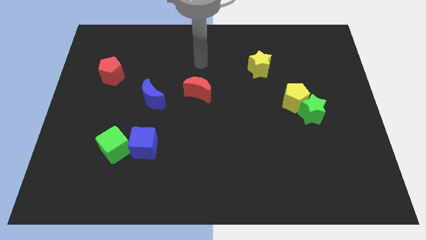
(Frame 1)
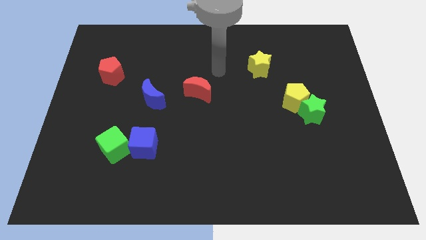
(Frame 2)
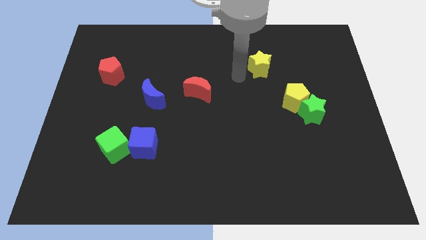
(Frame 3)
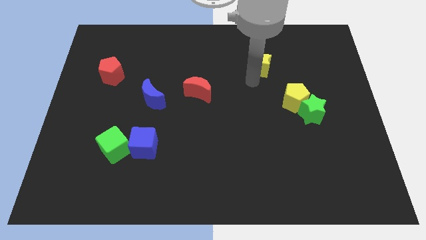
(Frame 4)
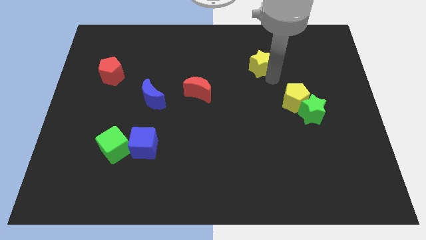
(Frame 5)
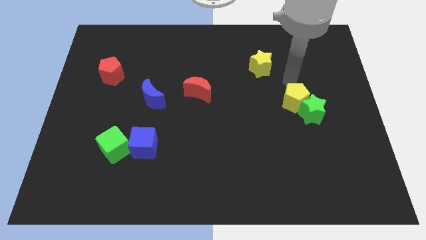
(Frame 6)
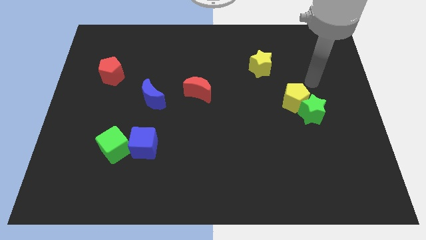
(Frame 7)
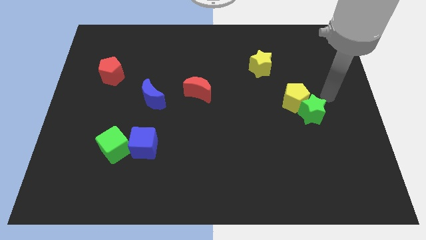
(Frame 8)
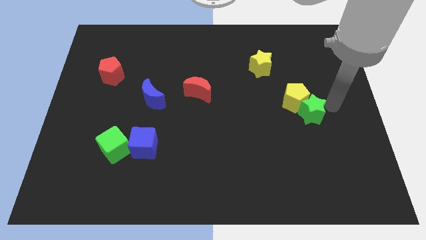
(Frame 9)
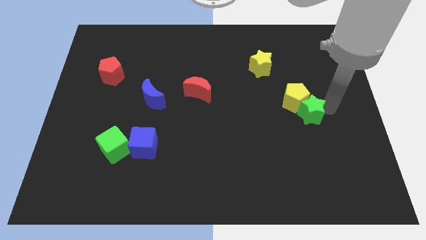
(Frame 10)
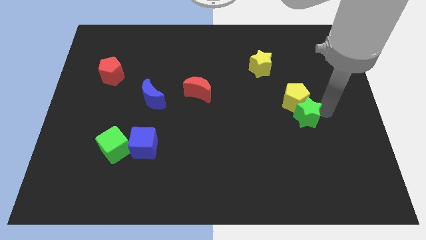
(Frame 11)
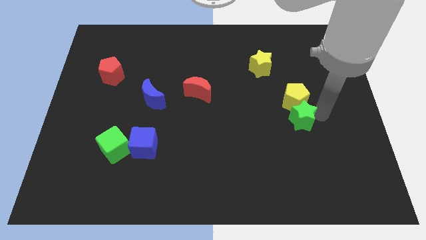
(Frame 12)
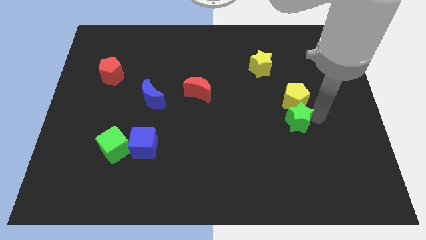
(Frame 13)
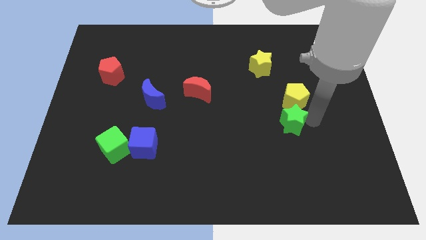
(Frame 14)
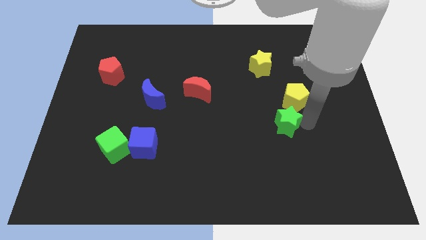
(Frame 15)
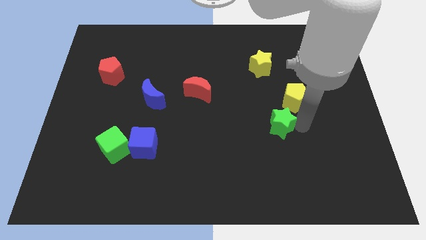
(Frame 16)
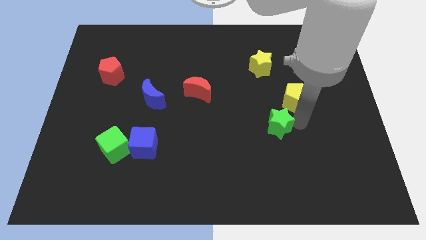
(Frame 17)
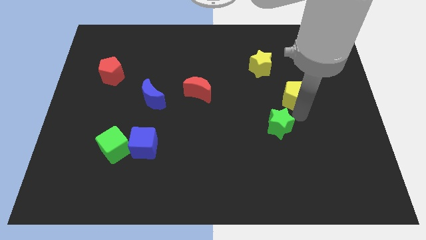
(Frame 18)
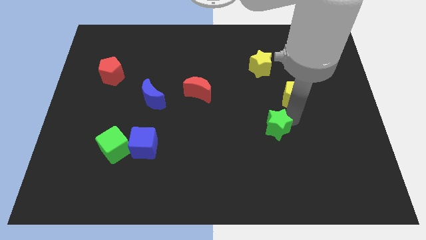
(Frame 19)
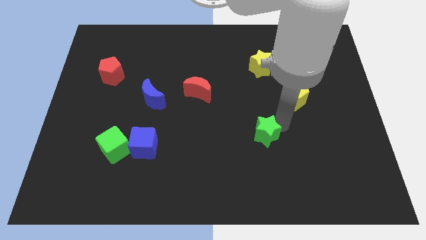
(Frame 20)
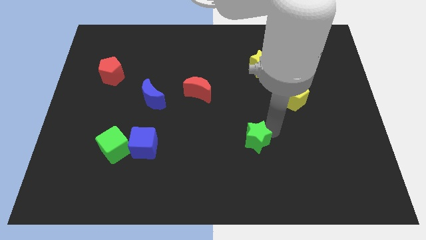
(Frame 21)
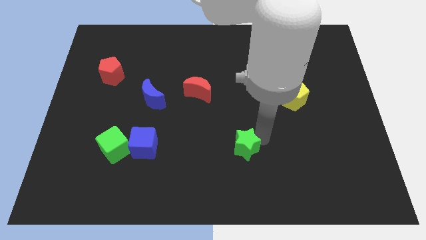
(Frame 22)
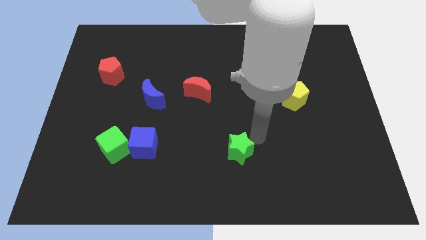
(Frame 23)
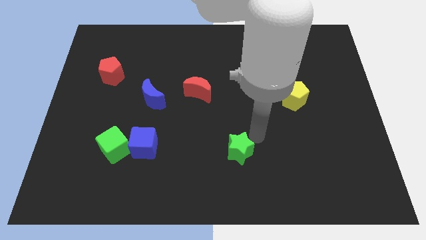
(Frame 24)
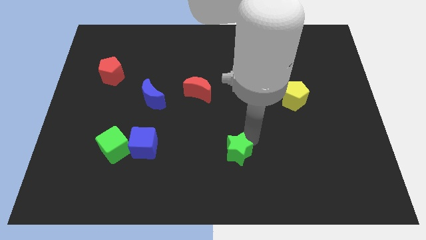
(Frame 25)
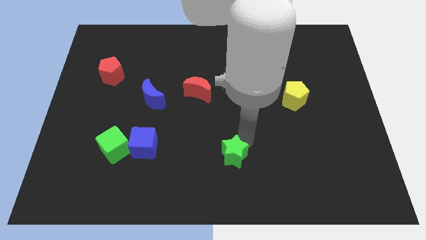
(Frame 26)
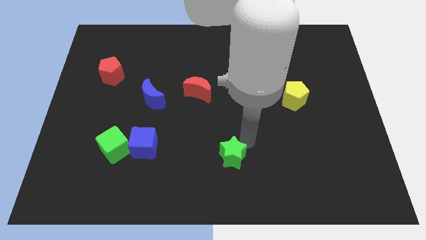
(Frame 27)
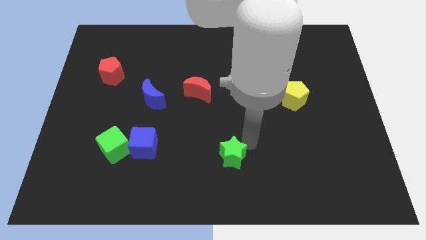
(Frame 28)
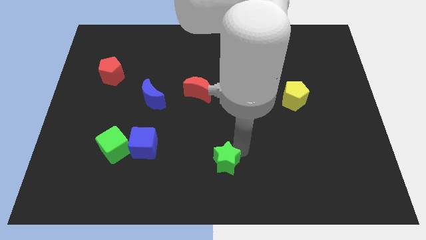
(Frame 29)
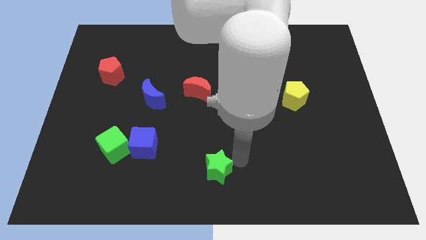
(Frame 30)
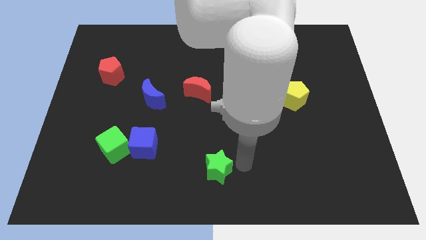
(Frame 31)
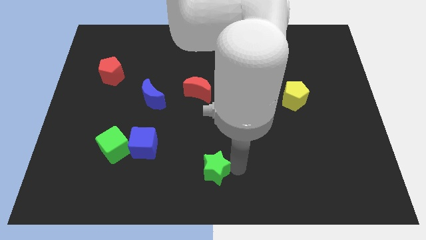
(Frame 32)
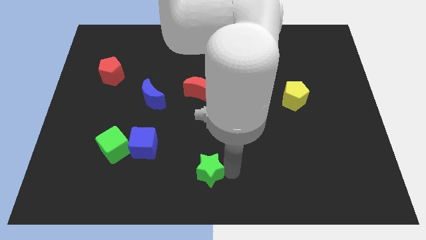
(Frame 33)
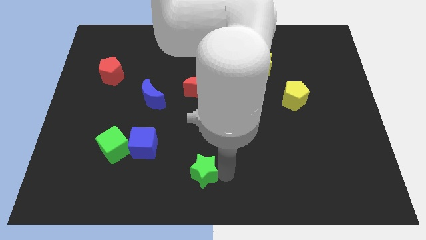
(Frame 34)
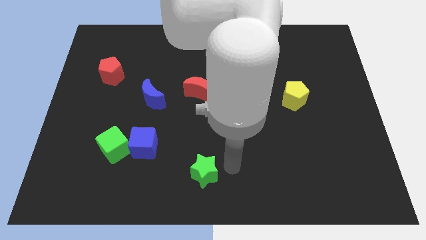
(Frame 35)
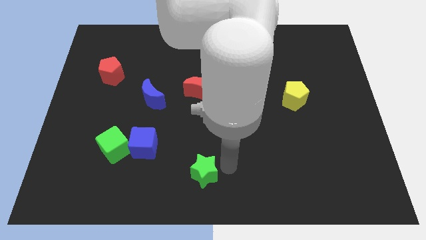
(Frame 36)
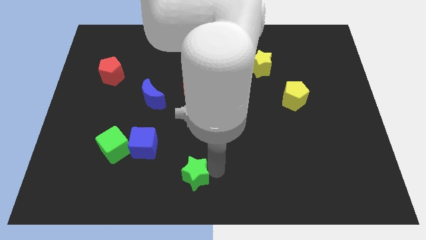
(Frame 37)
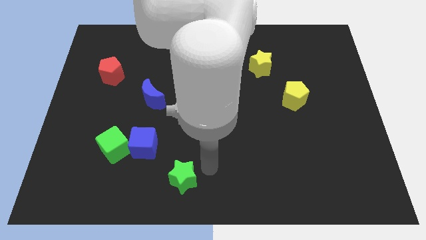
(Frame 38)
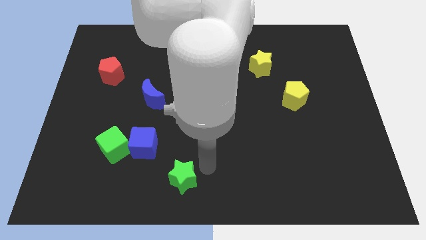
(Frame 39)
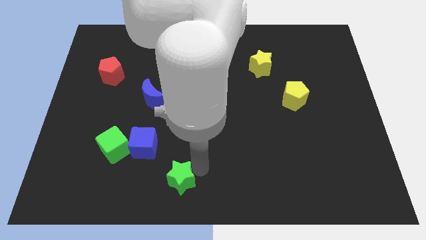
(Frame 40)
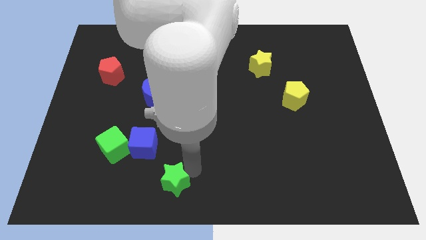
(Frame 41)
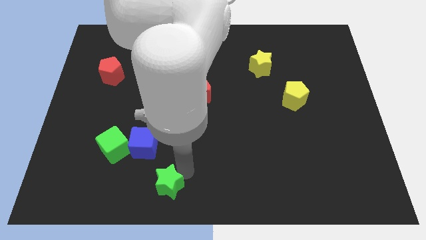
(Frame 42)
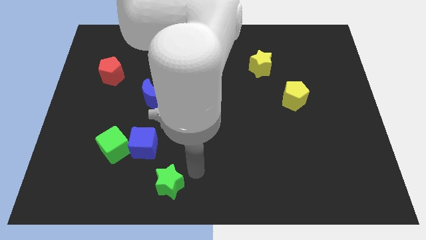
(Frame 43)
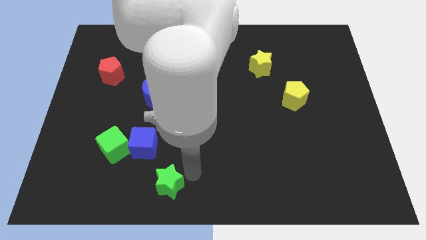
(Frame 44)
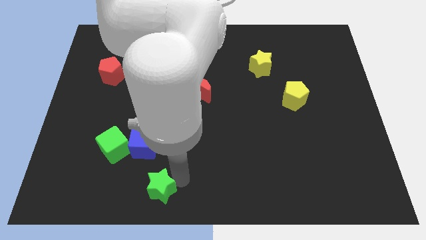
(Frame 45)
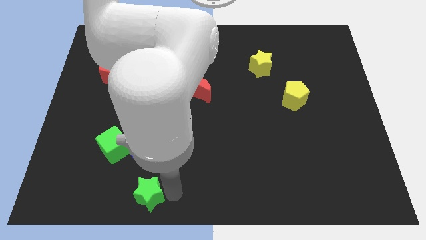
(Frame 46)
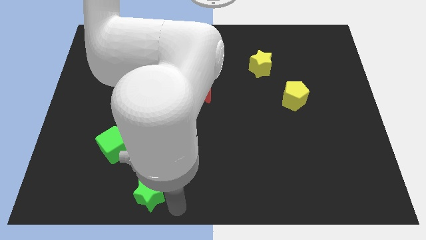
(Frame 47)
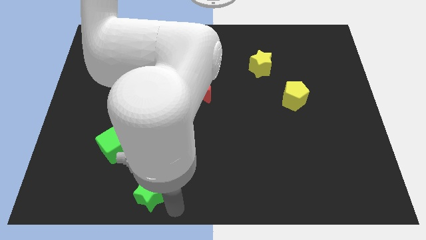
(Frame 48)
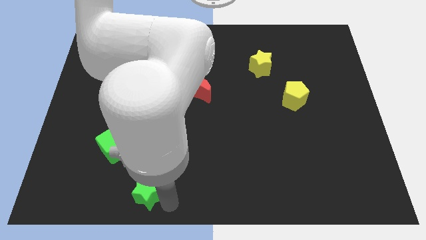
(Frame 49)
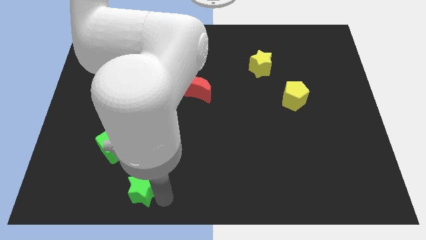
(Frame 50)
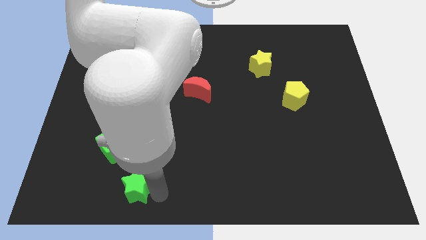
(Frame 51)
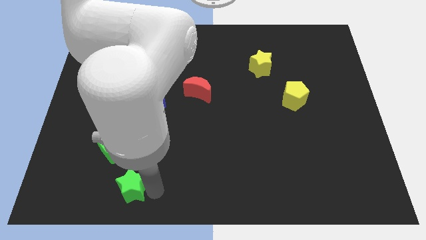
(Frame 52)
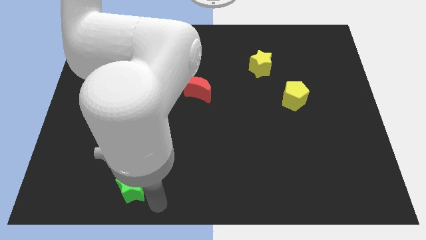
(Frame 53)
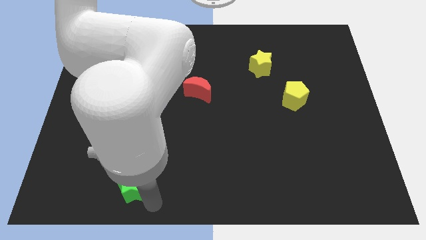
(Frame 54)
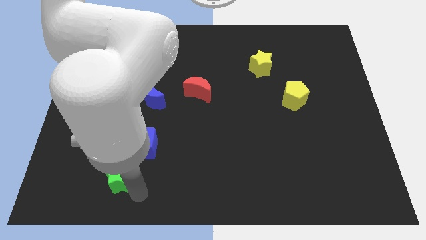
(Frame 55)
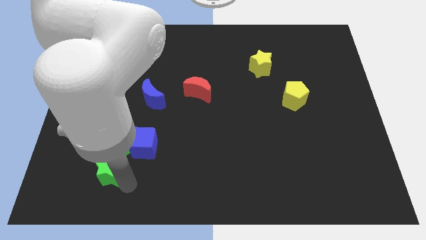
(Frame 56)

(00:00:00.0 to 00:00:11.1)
move the green star to the bottom left of the green cube

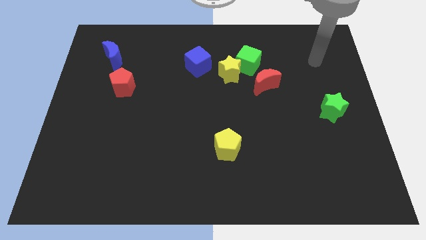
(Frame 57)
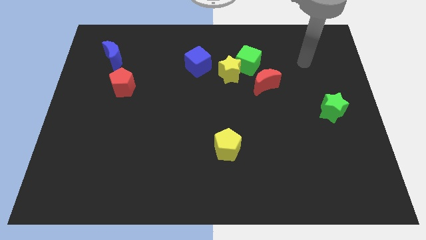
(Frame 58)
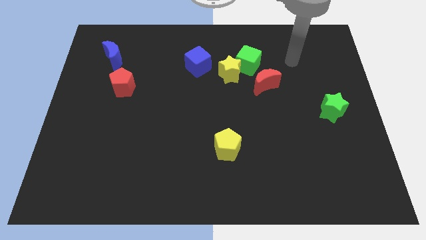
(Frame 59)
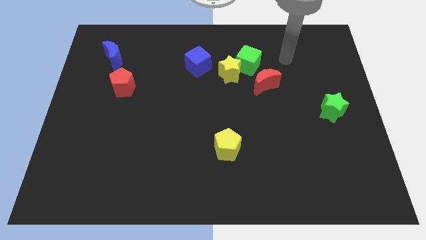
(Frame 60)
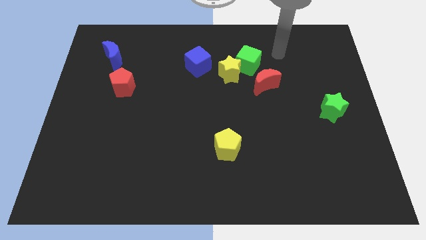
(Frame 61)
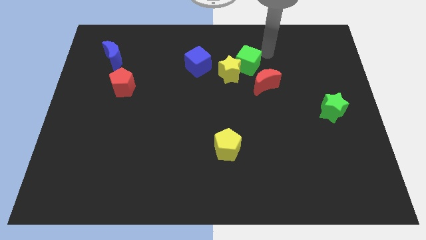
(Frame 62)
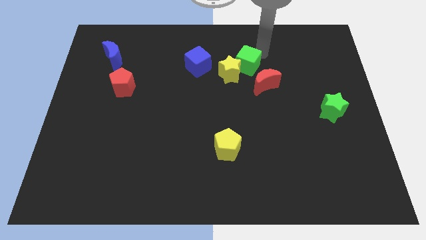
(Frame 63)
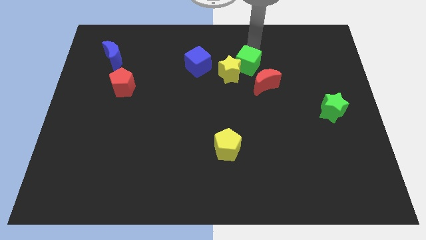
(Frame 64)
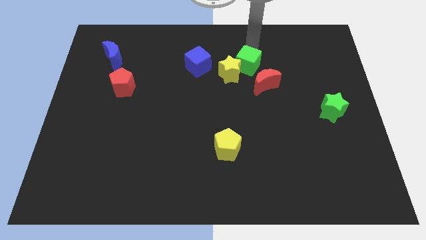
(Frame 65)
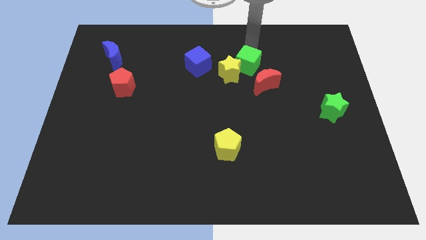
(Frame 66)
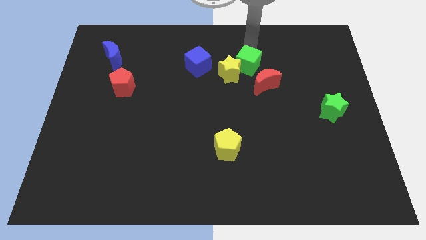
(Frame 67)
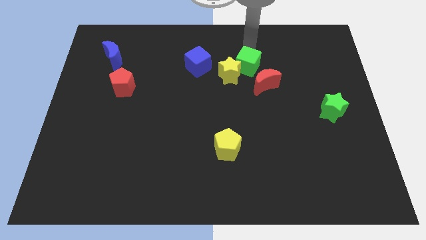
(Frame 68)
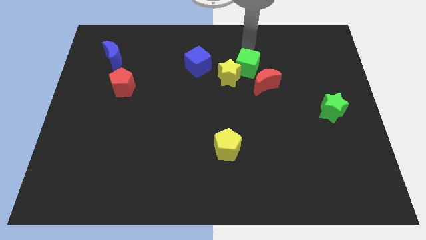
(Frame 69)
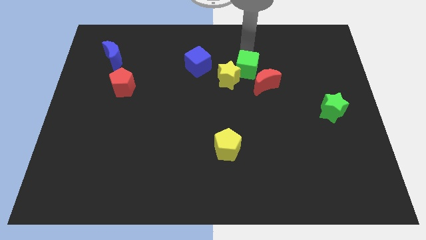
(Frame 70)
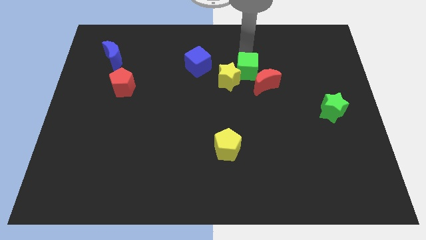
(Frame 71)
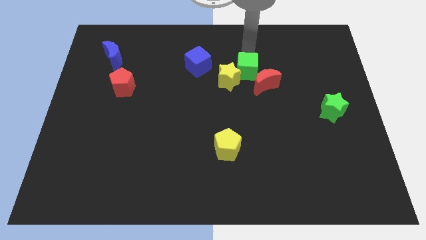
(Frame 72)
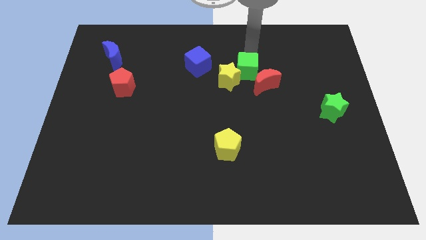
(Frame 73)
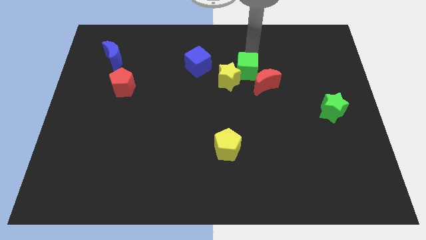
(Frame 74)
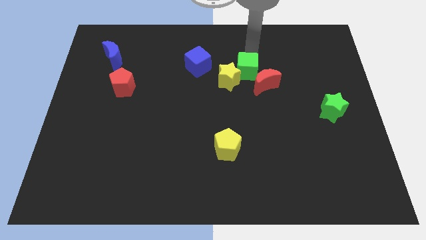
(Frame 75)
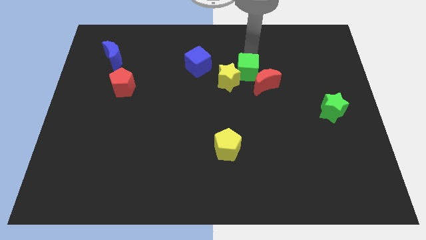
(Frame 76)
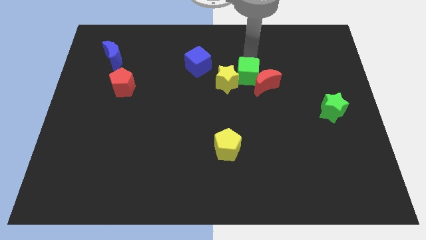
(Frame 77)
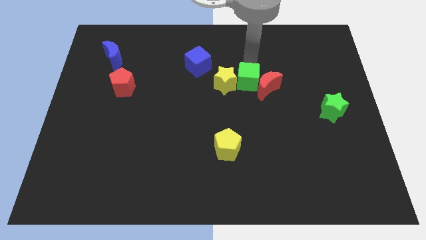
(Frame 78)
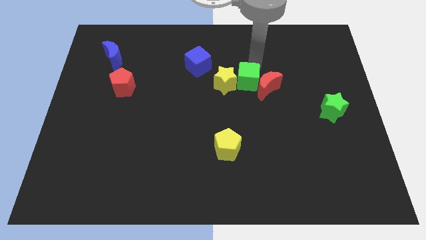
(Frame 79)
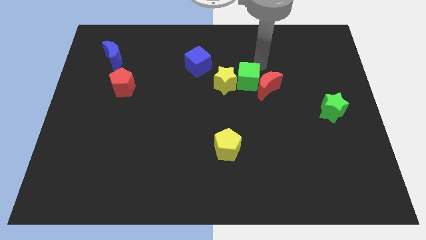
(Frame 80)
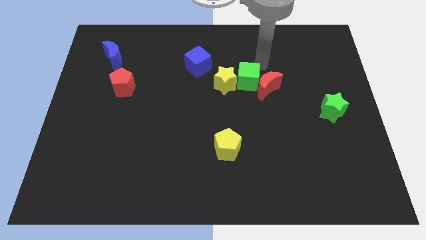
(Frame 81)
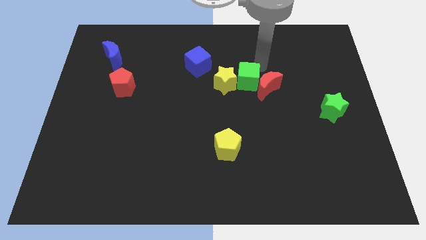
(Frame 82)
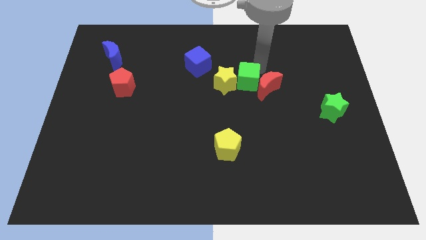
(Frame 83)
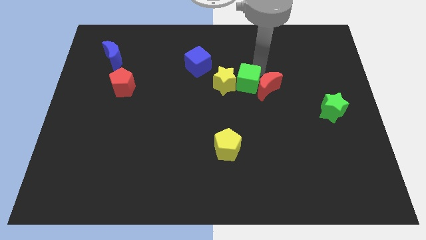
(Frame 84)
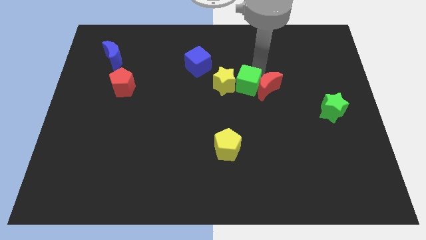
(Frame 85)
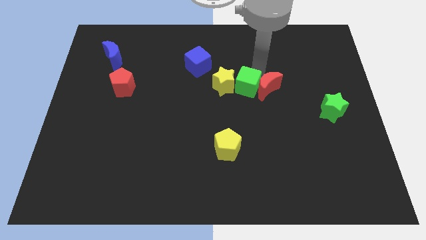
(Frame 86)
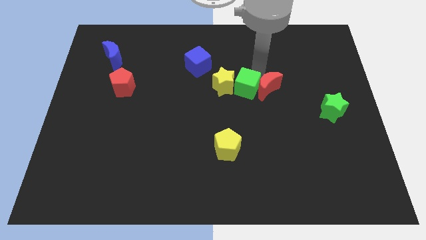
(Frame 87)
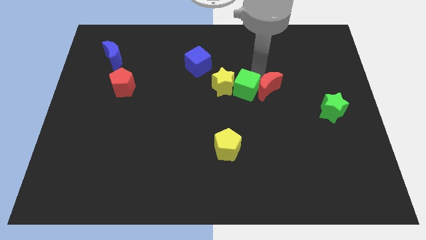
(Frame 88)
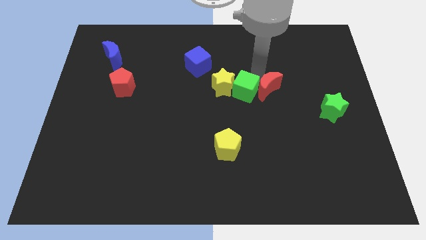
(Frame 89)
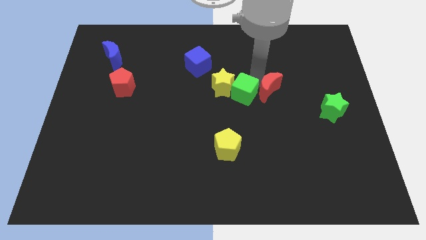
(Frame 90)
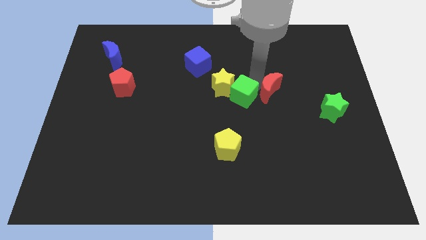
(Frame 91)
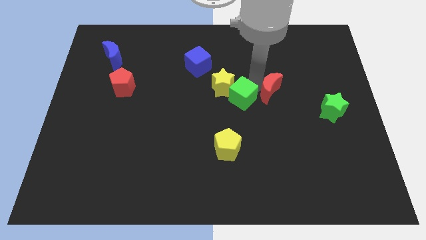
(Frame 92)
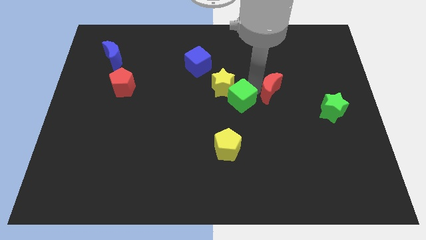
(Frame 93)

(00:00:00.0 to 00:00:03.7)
put the green cube to the top side of the yellow pentagon
